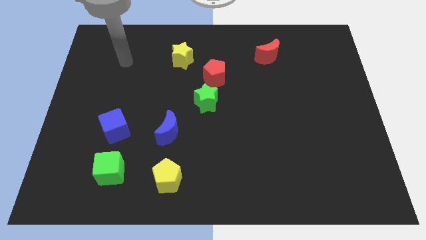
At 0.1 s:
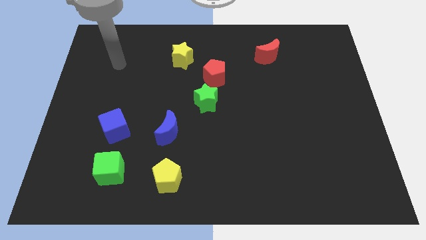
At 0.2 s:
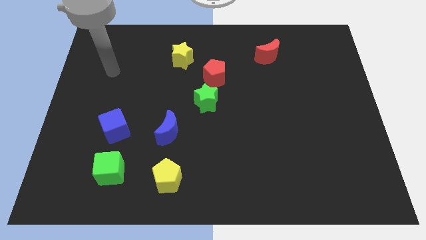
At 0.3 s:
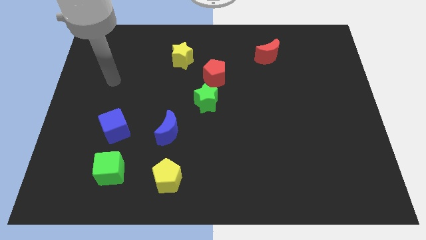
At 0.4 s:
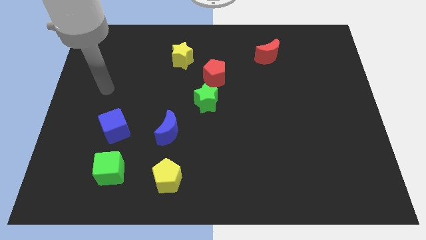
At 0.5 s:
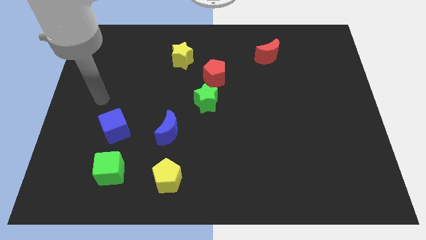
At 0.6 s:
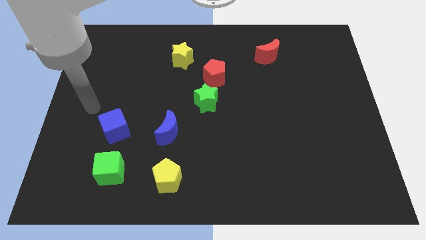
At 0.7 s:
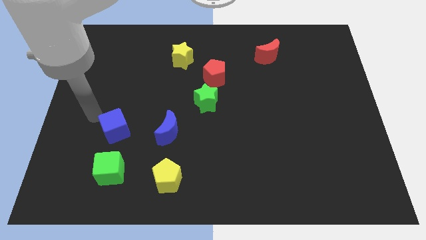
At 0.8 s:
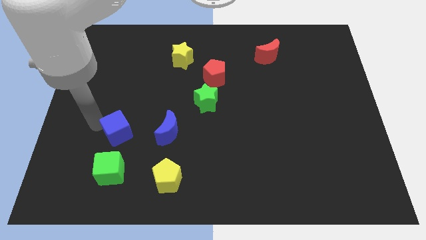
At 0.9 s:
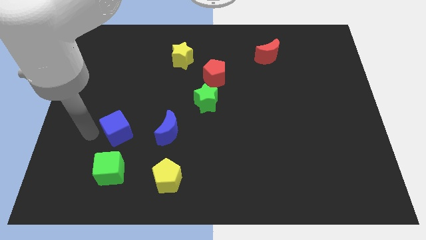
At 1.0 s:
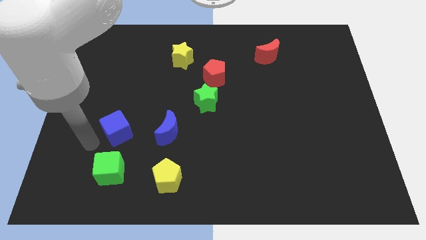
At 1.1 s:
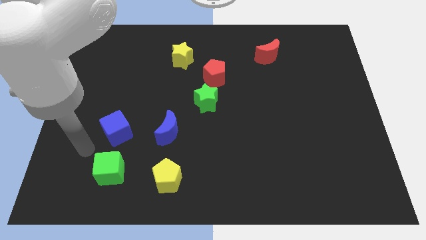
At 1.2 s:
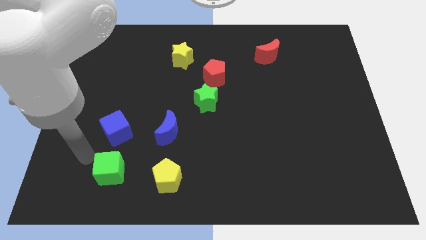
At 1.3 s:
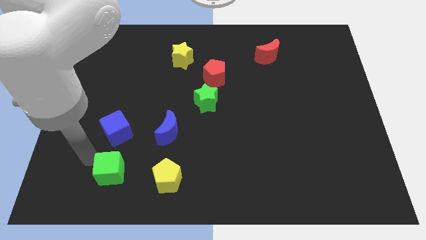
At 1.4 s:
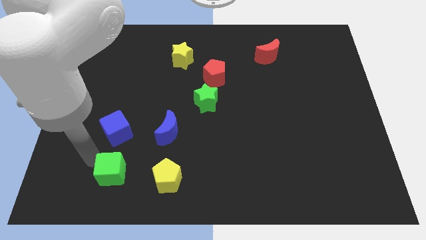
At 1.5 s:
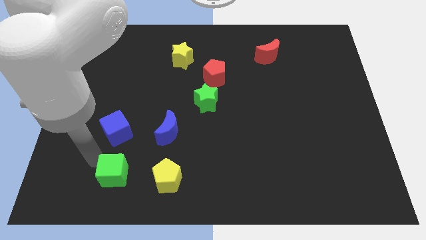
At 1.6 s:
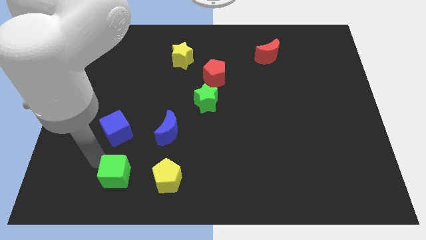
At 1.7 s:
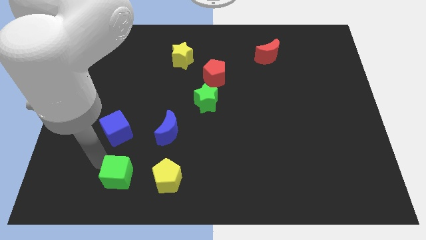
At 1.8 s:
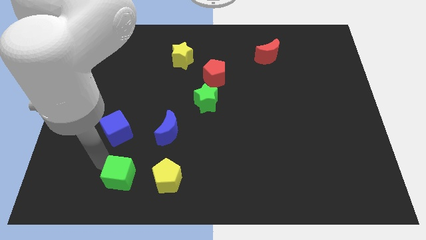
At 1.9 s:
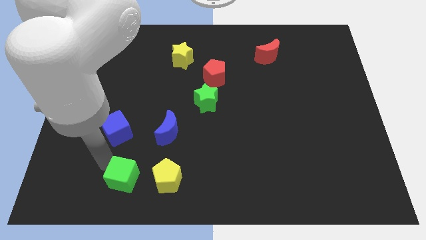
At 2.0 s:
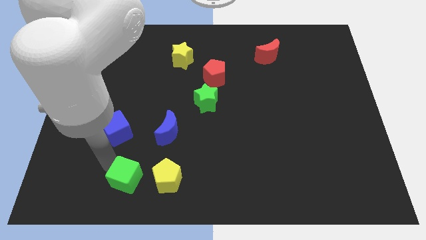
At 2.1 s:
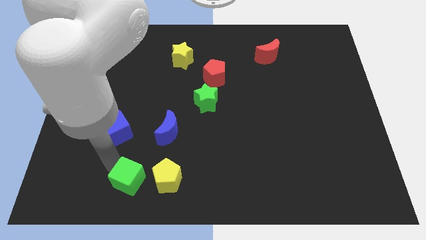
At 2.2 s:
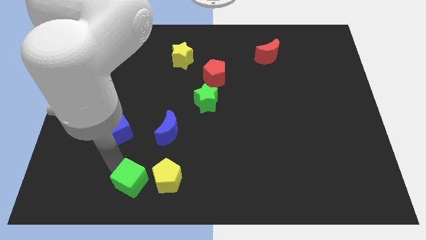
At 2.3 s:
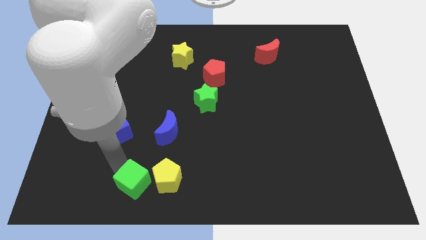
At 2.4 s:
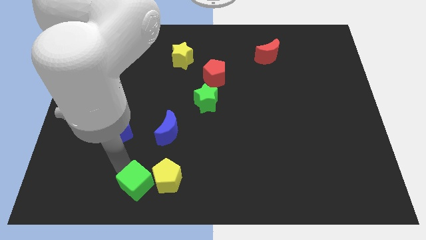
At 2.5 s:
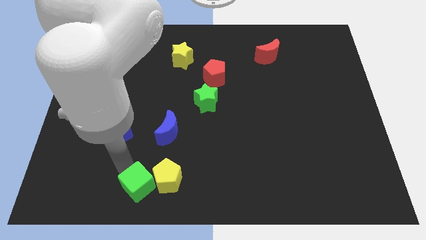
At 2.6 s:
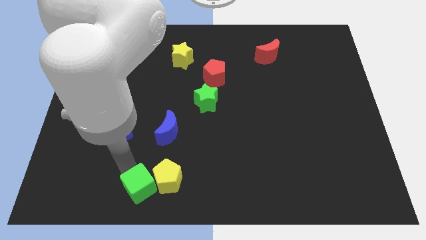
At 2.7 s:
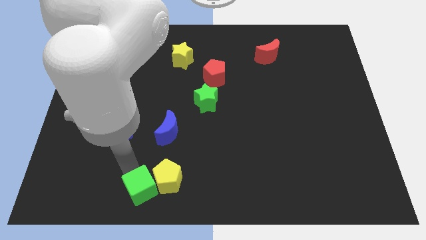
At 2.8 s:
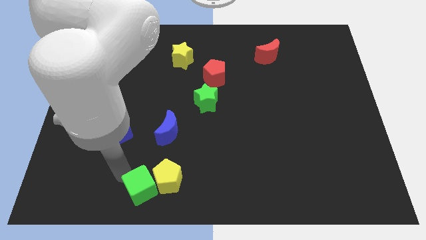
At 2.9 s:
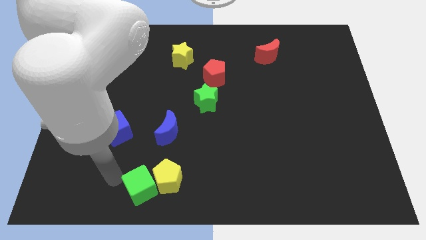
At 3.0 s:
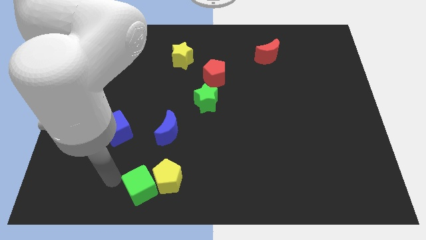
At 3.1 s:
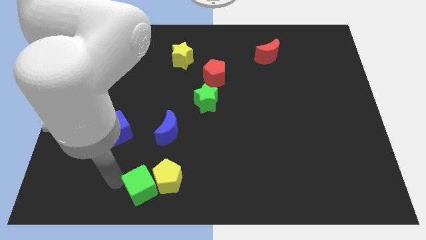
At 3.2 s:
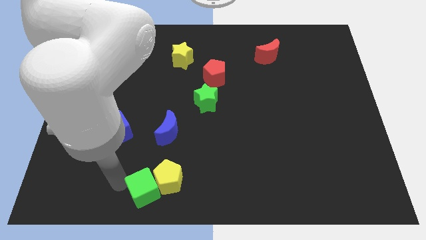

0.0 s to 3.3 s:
slightly slide the green cube to the right

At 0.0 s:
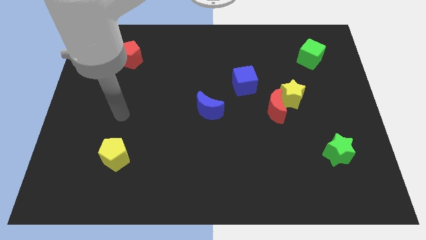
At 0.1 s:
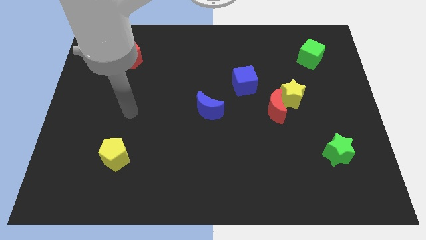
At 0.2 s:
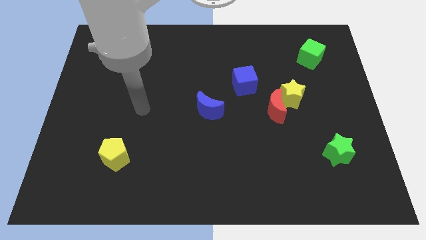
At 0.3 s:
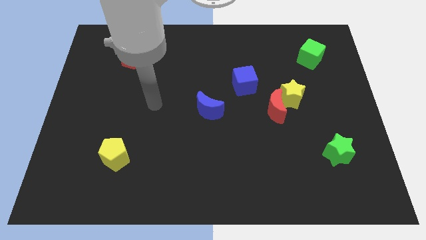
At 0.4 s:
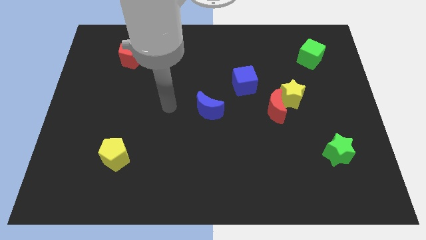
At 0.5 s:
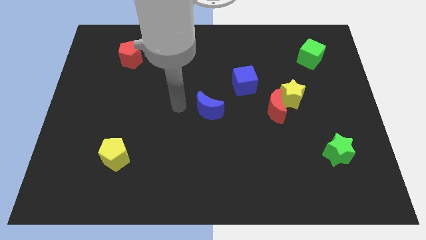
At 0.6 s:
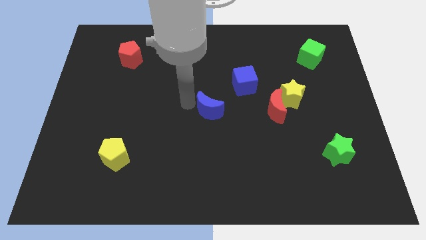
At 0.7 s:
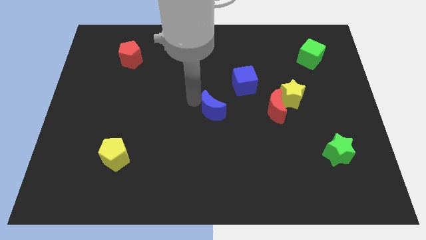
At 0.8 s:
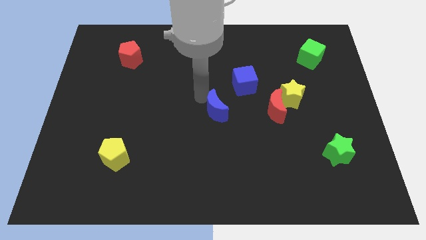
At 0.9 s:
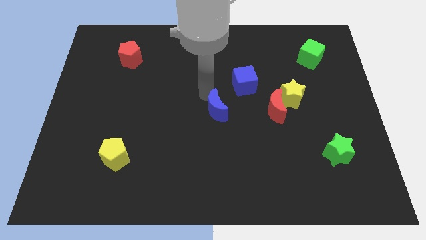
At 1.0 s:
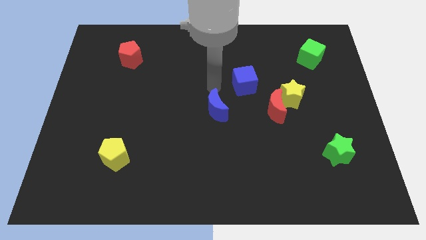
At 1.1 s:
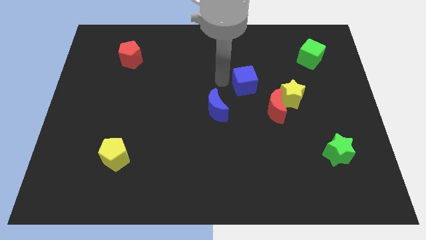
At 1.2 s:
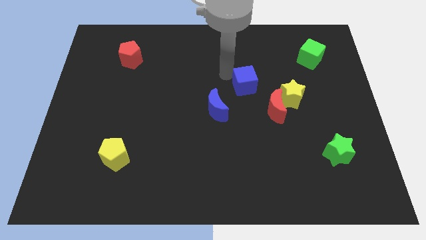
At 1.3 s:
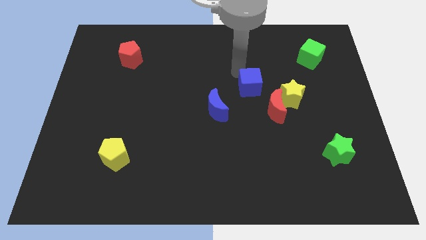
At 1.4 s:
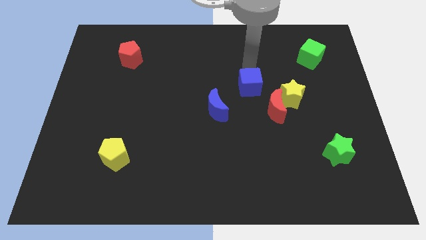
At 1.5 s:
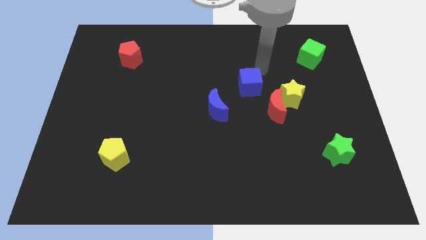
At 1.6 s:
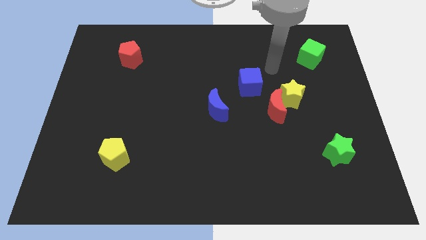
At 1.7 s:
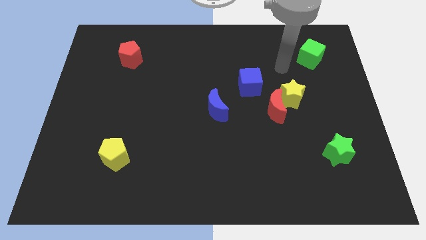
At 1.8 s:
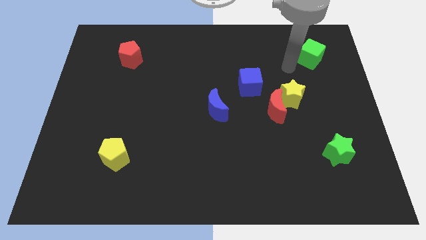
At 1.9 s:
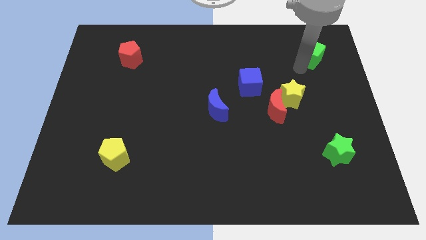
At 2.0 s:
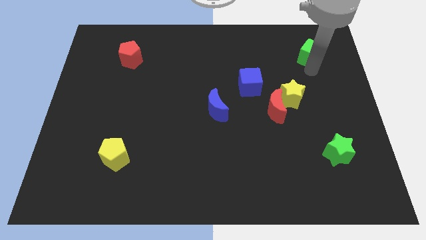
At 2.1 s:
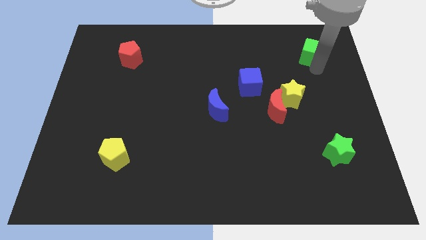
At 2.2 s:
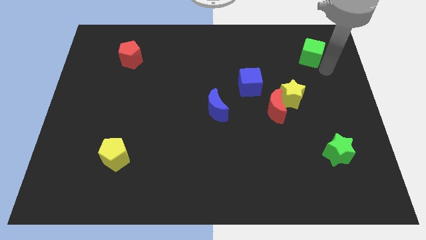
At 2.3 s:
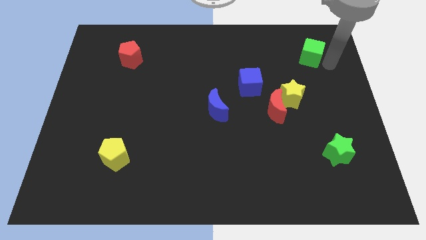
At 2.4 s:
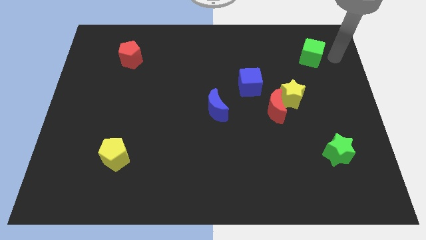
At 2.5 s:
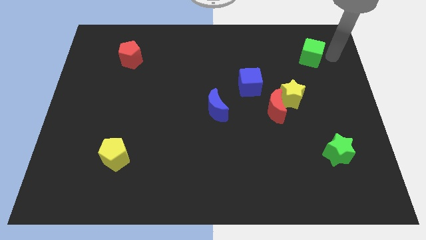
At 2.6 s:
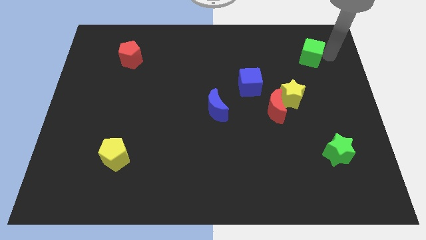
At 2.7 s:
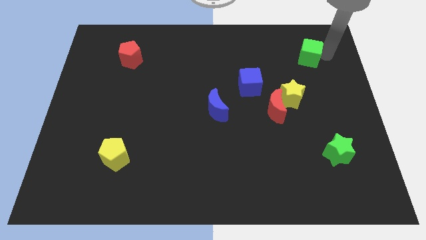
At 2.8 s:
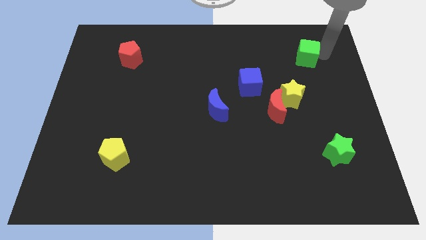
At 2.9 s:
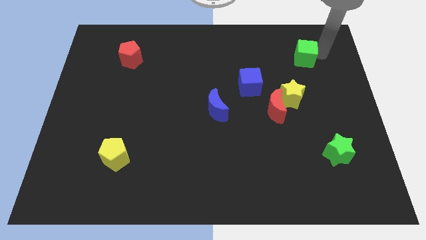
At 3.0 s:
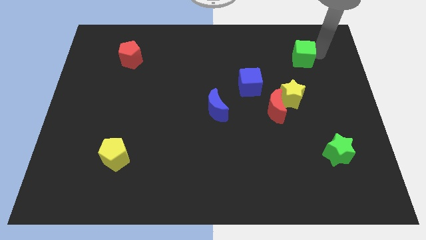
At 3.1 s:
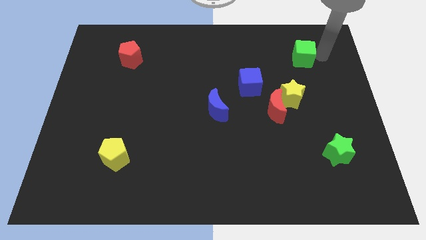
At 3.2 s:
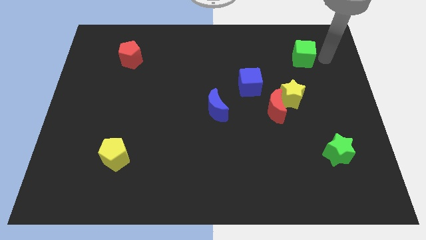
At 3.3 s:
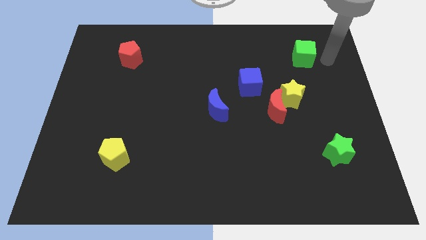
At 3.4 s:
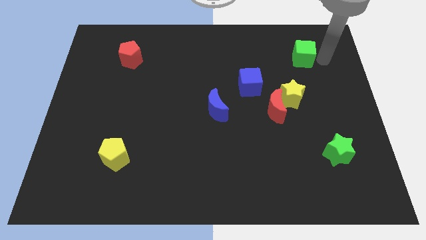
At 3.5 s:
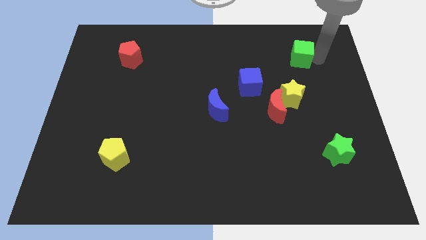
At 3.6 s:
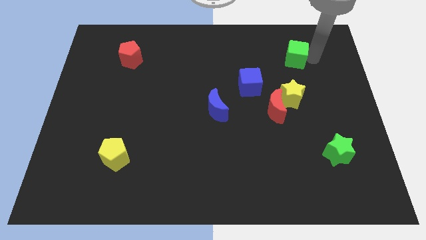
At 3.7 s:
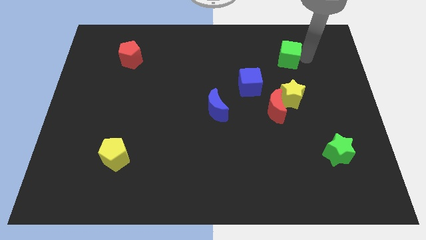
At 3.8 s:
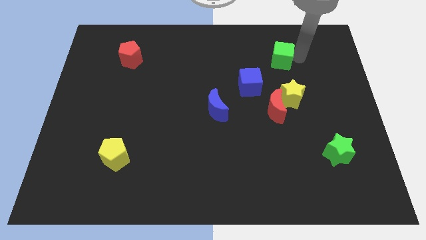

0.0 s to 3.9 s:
push the green cube left a little

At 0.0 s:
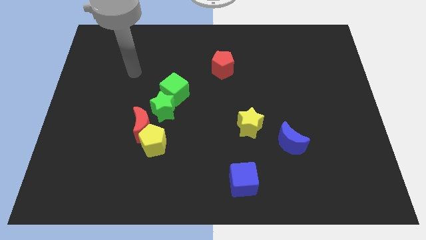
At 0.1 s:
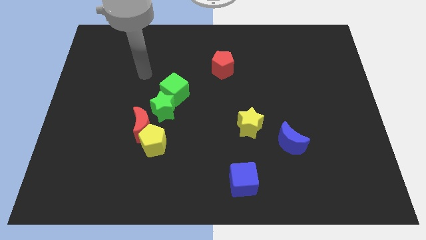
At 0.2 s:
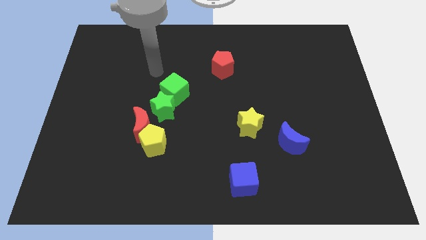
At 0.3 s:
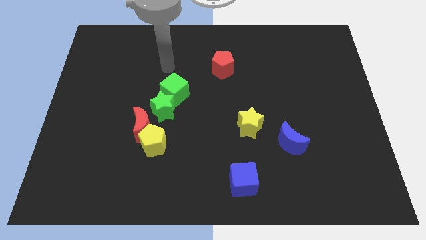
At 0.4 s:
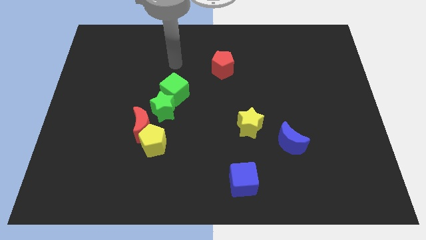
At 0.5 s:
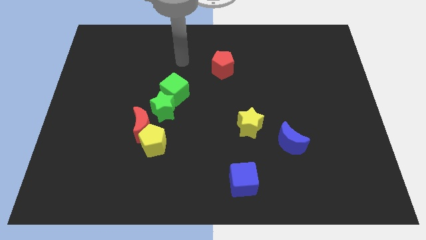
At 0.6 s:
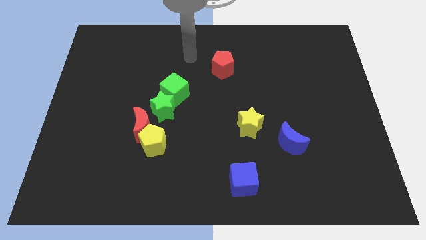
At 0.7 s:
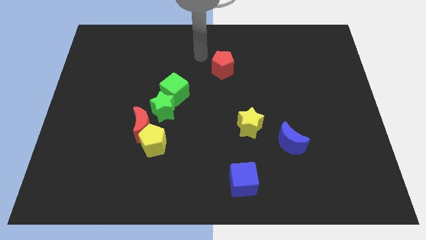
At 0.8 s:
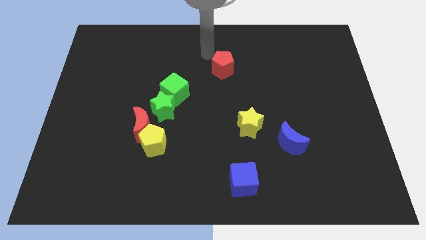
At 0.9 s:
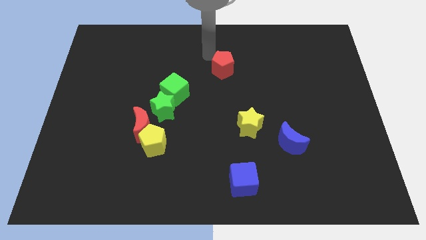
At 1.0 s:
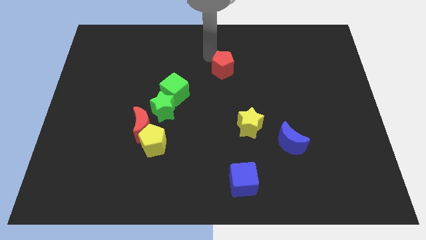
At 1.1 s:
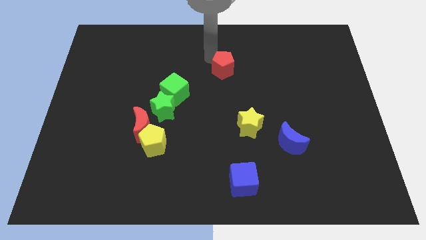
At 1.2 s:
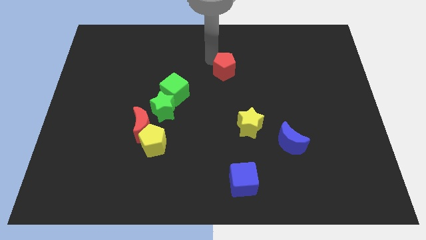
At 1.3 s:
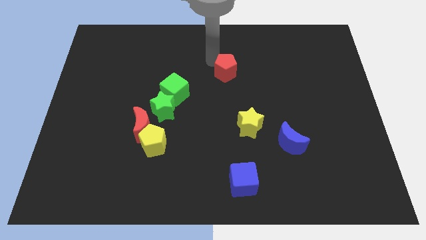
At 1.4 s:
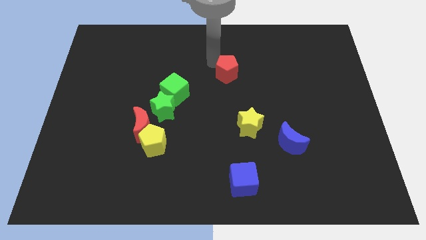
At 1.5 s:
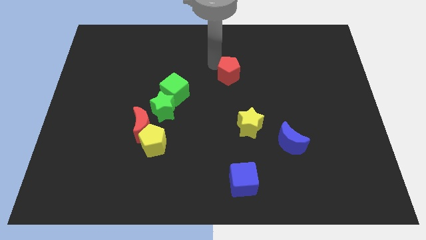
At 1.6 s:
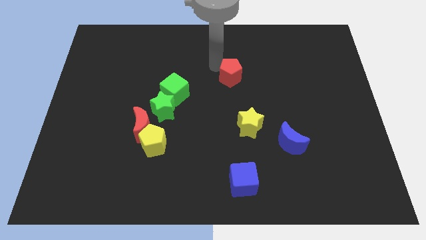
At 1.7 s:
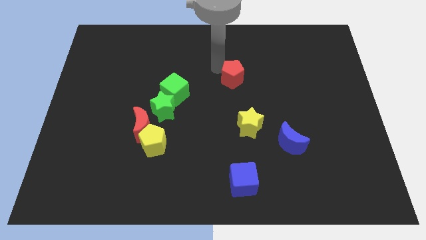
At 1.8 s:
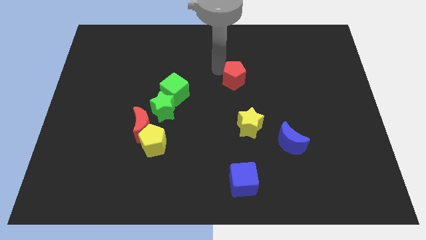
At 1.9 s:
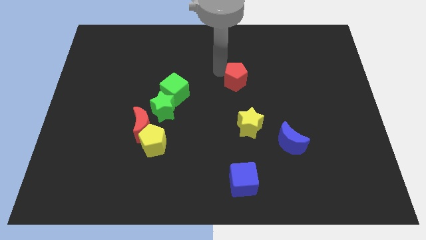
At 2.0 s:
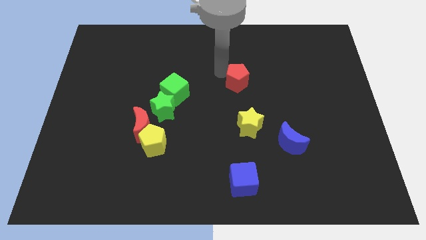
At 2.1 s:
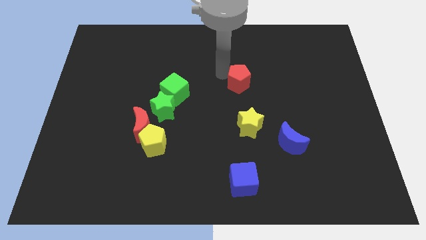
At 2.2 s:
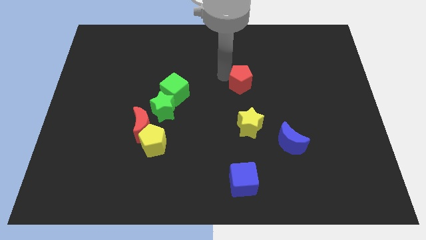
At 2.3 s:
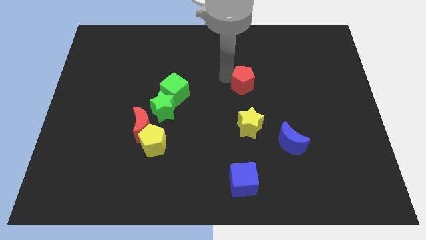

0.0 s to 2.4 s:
push the red pentagon downwards and right slightly
